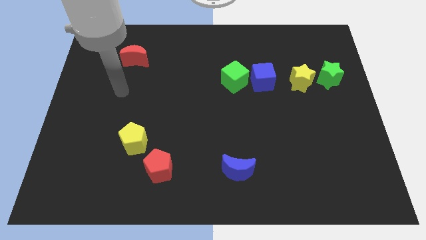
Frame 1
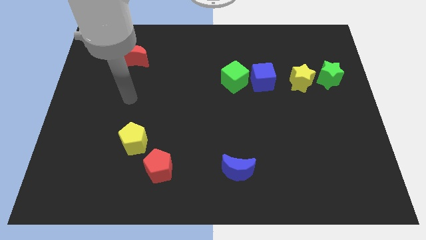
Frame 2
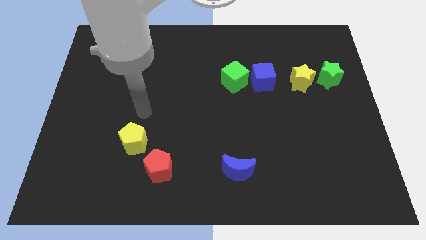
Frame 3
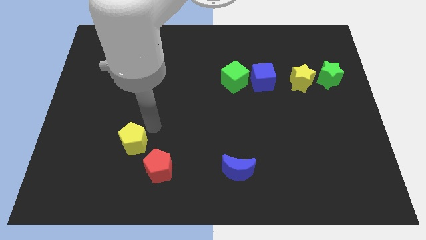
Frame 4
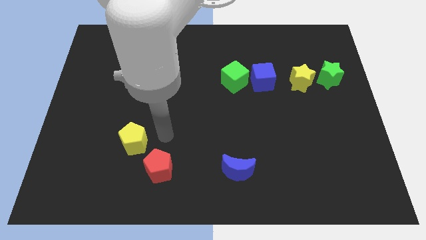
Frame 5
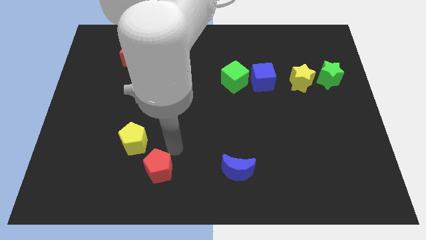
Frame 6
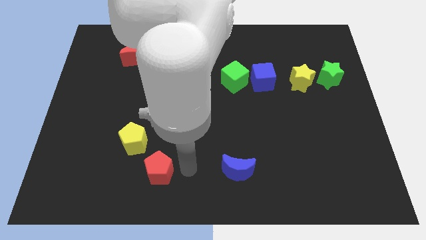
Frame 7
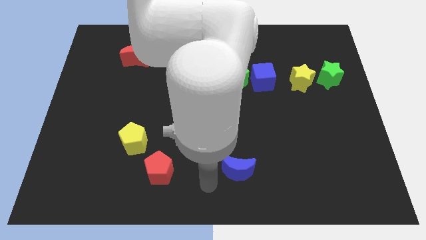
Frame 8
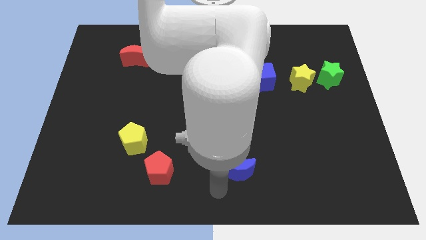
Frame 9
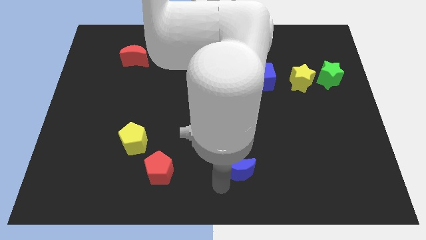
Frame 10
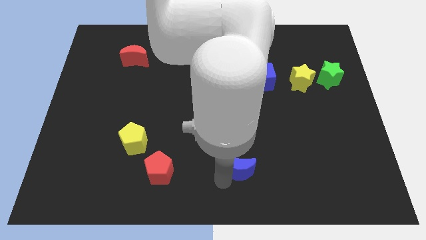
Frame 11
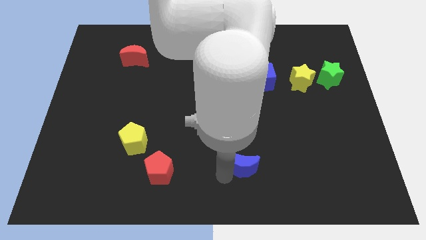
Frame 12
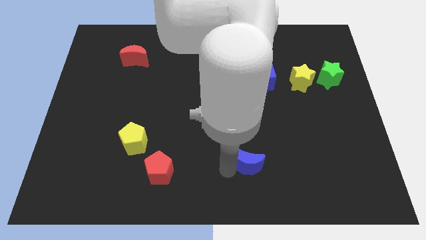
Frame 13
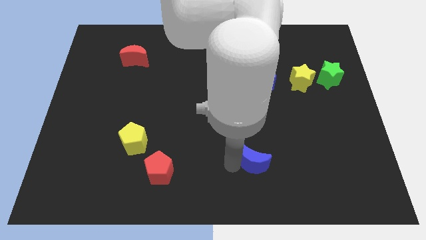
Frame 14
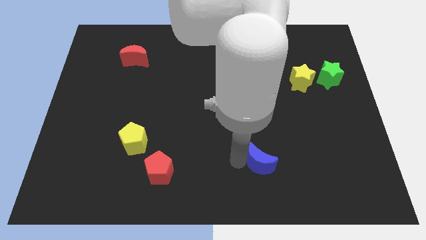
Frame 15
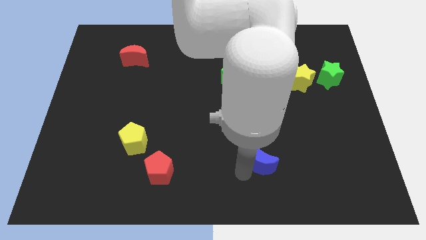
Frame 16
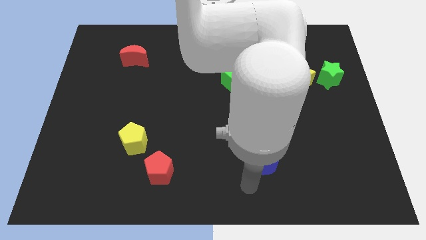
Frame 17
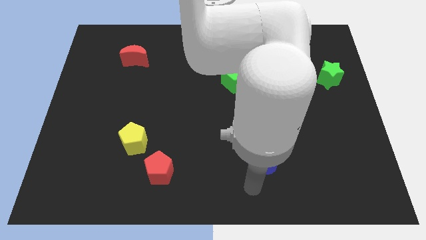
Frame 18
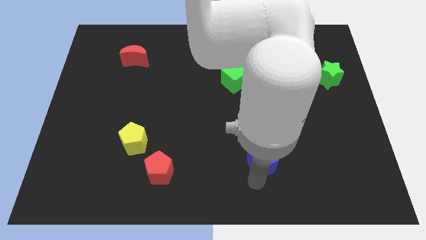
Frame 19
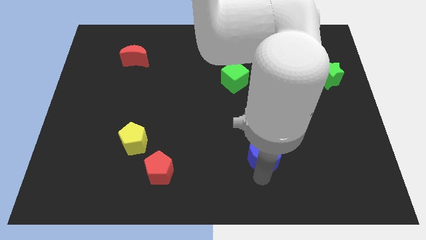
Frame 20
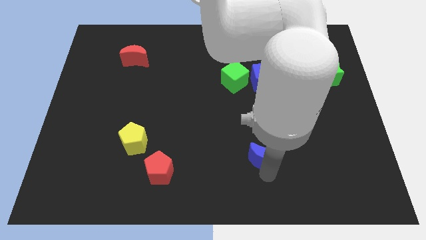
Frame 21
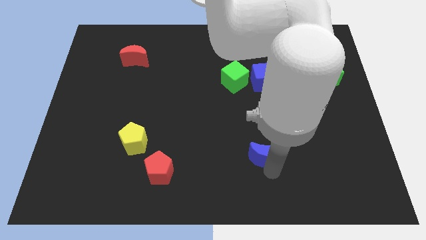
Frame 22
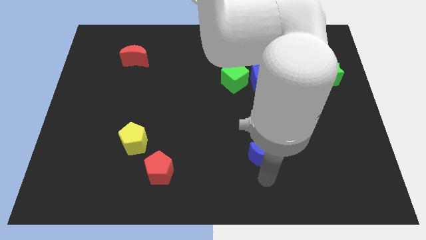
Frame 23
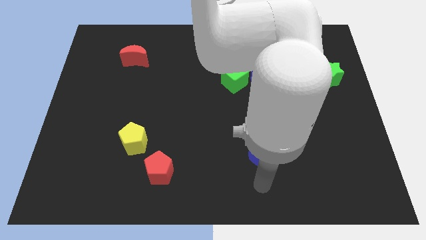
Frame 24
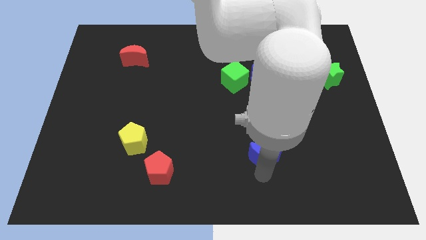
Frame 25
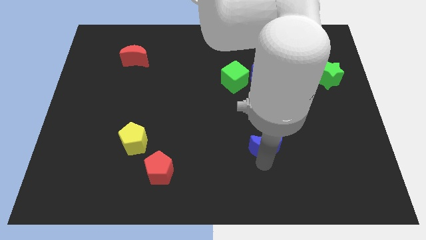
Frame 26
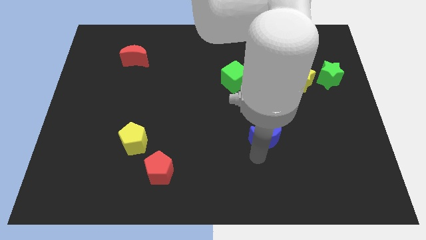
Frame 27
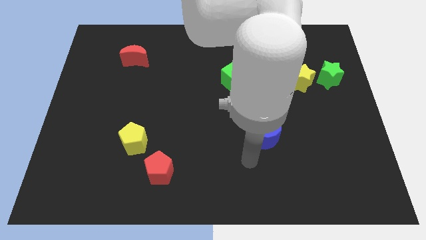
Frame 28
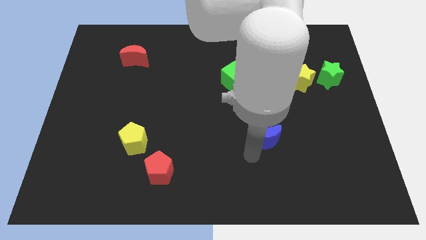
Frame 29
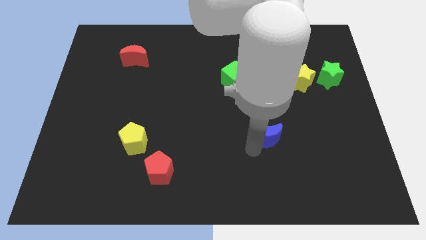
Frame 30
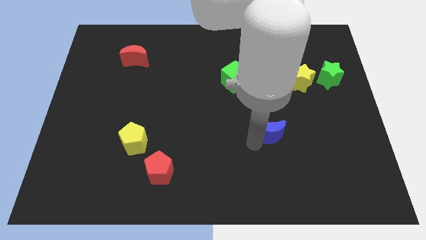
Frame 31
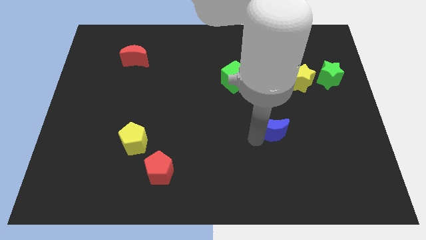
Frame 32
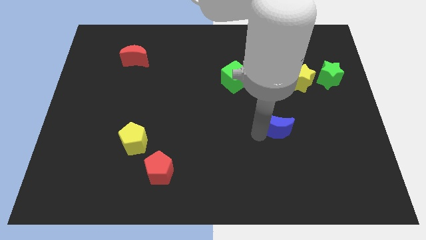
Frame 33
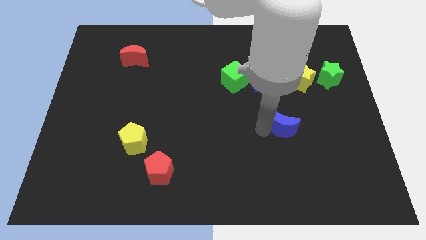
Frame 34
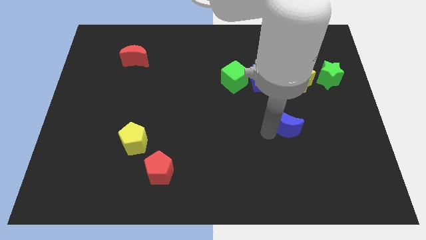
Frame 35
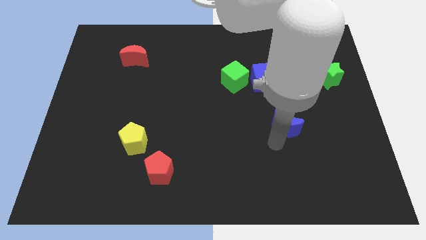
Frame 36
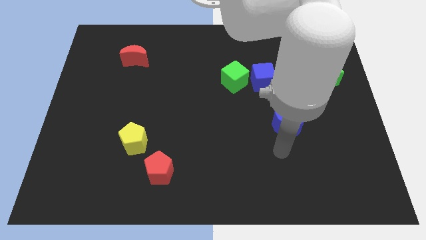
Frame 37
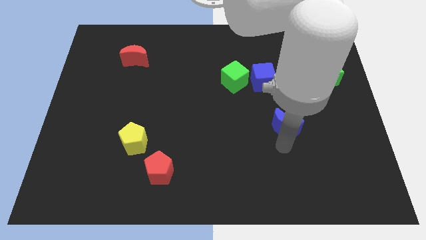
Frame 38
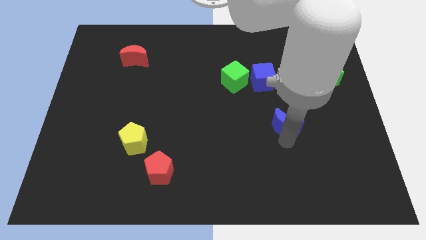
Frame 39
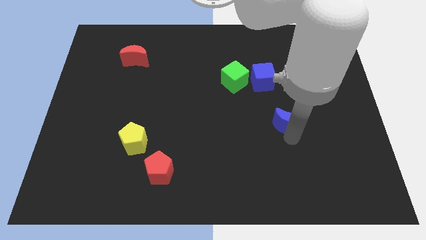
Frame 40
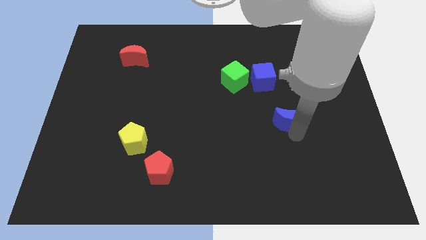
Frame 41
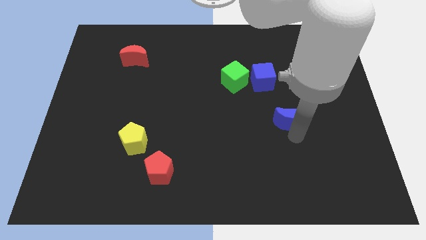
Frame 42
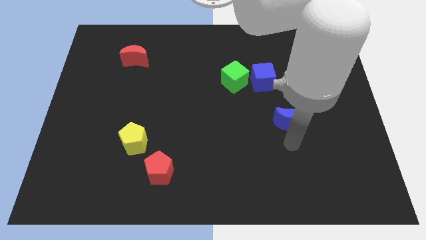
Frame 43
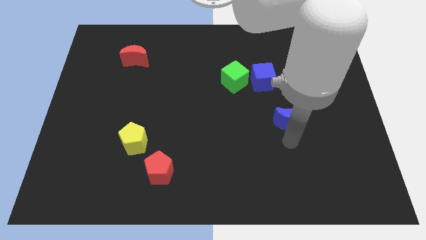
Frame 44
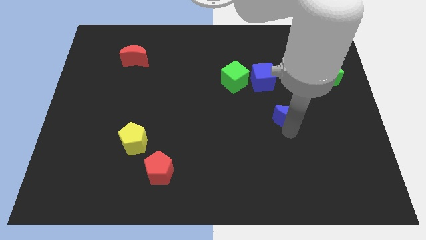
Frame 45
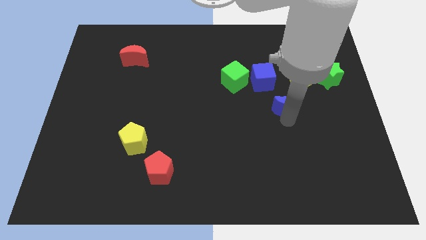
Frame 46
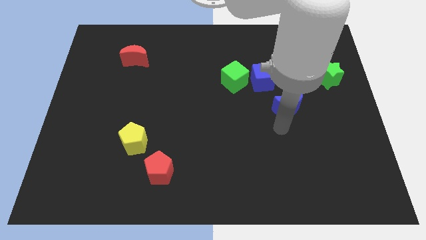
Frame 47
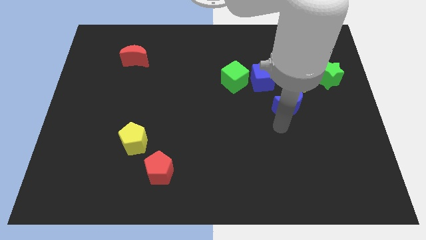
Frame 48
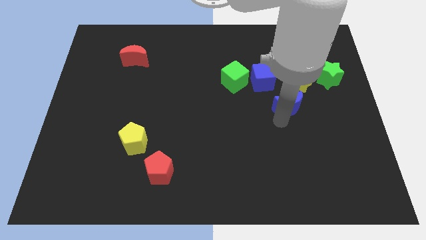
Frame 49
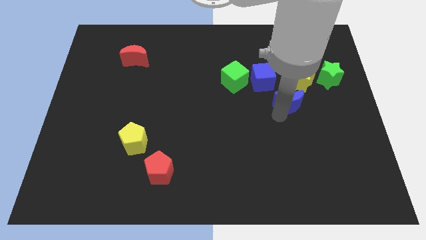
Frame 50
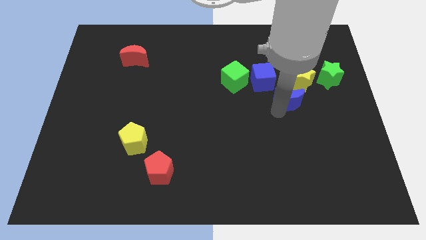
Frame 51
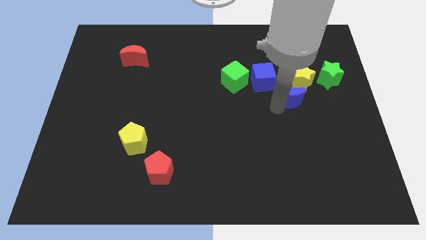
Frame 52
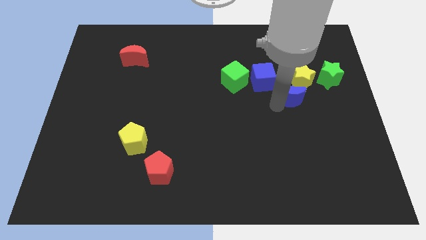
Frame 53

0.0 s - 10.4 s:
slide the blue moon to the yellow star

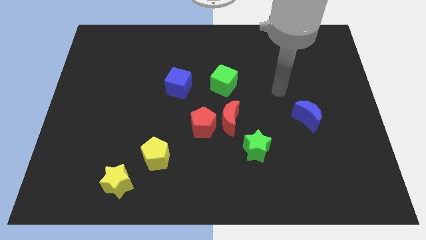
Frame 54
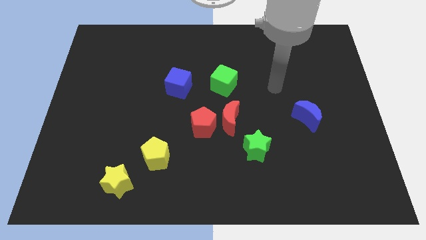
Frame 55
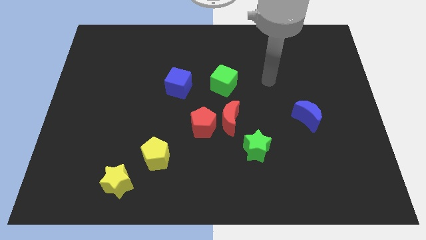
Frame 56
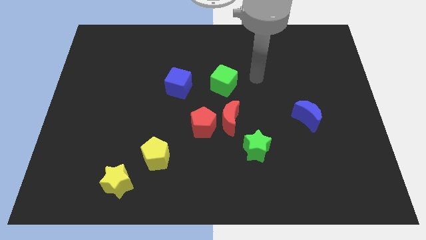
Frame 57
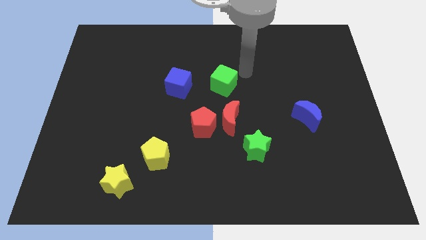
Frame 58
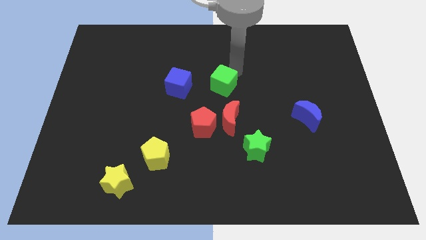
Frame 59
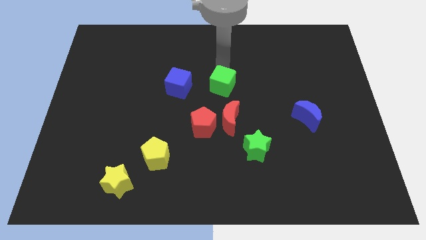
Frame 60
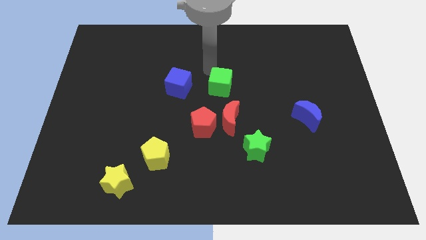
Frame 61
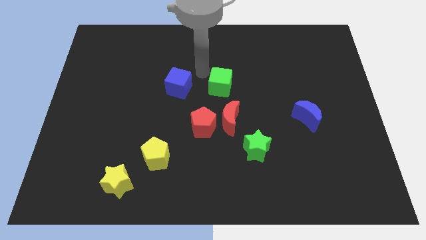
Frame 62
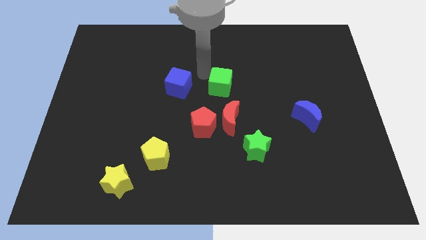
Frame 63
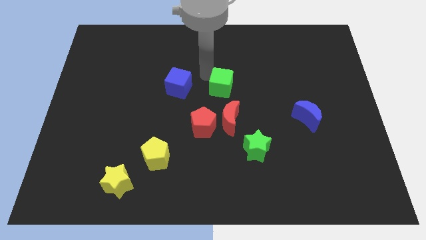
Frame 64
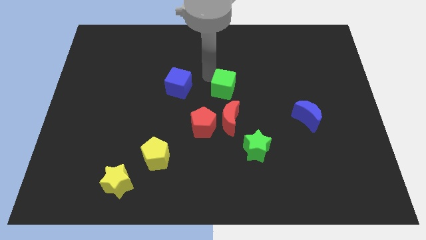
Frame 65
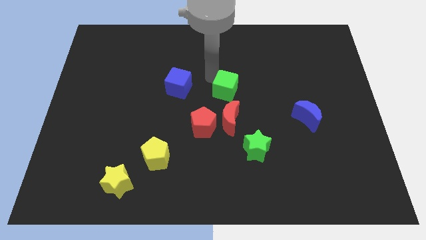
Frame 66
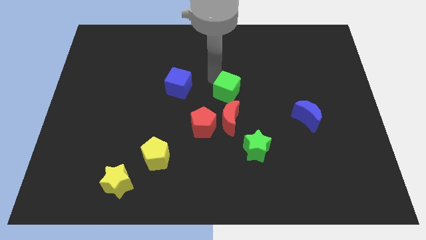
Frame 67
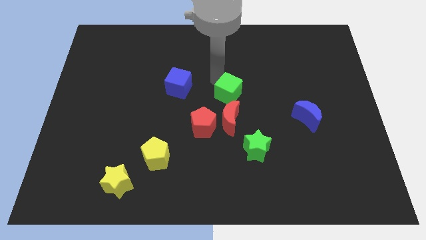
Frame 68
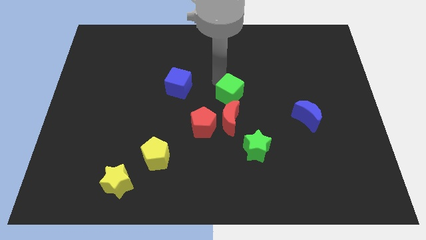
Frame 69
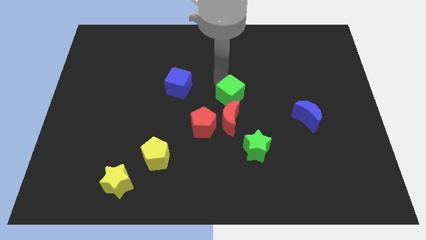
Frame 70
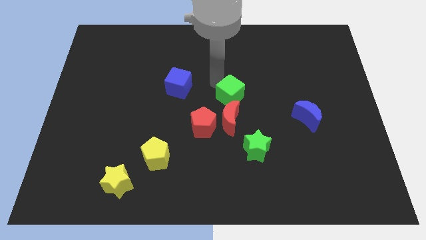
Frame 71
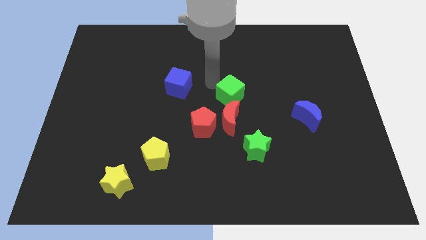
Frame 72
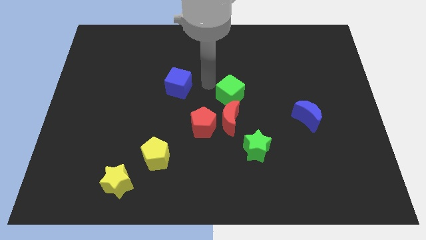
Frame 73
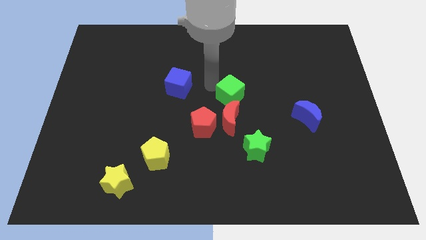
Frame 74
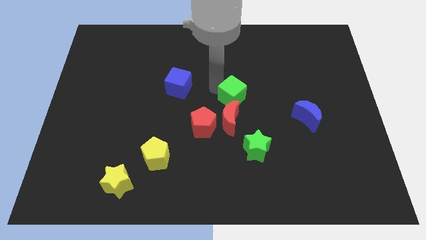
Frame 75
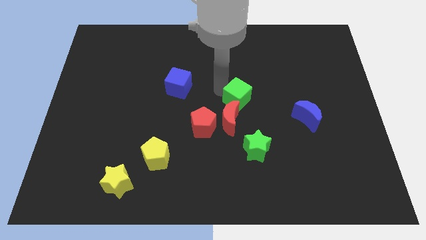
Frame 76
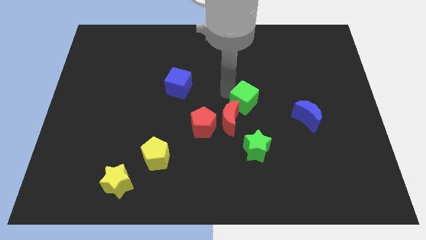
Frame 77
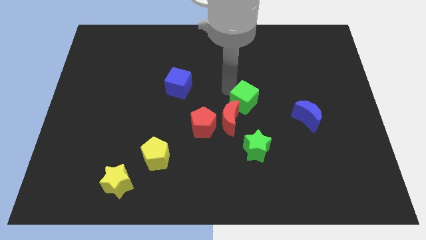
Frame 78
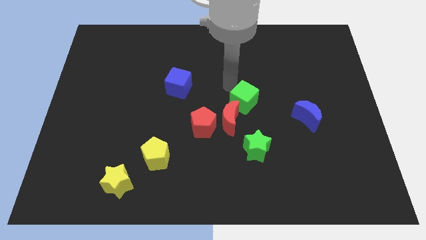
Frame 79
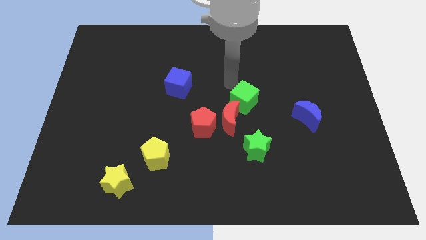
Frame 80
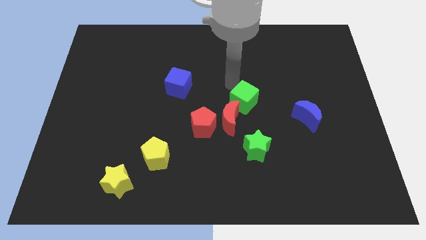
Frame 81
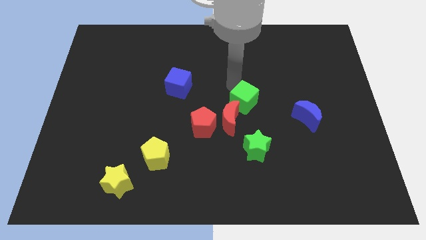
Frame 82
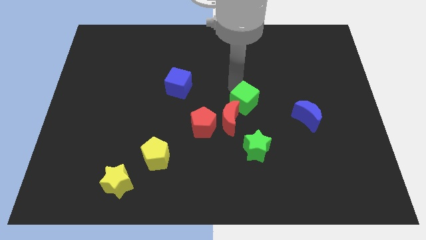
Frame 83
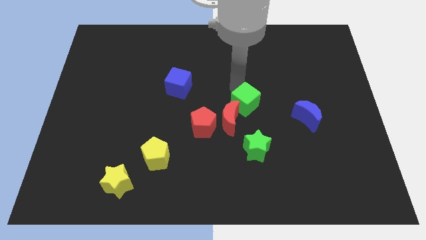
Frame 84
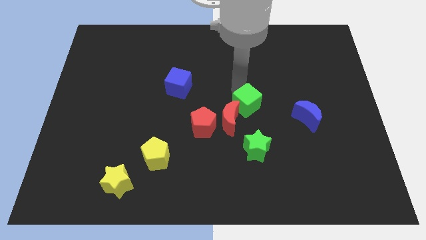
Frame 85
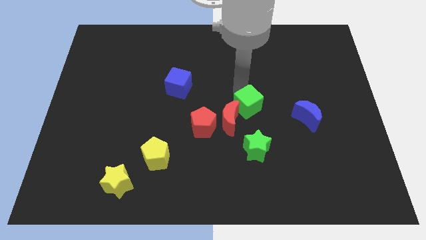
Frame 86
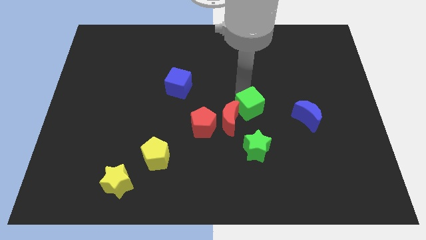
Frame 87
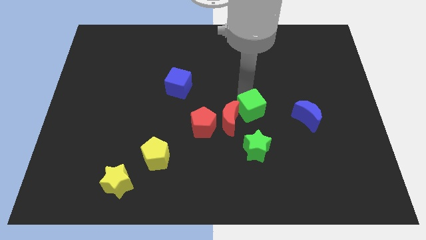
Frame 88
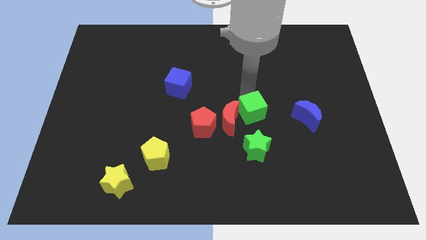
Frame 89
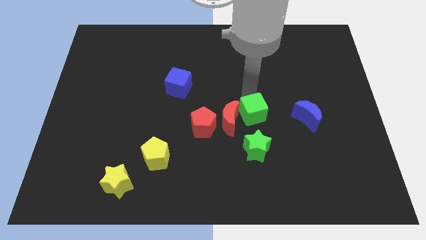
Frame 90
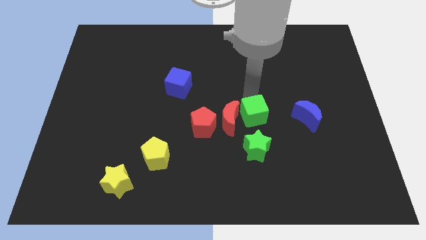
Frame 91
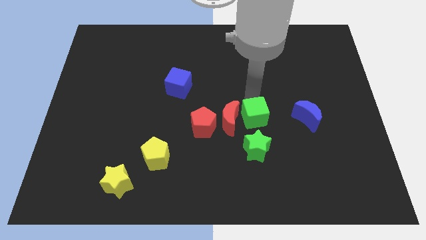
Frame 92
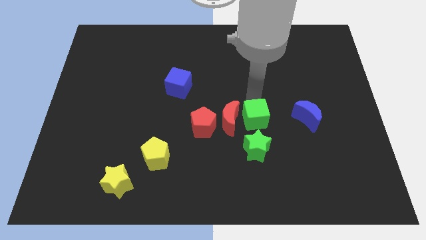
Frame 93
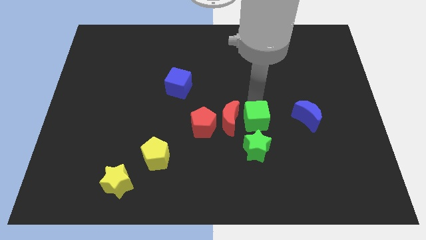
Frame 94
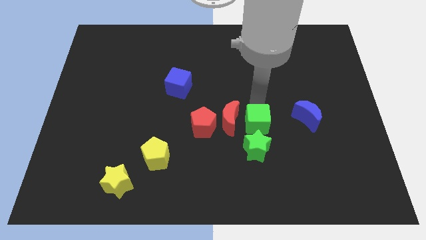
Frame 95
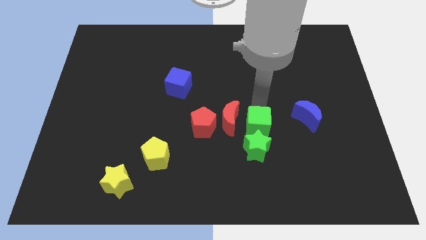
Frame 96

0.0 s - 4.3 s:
move the green cube to the green star
